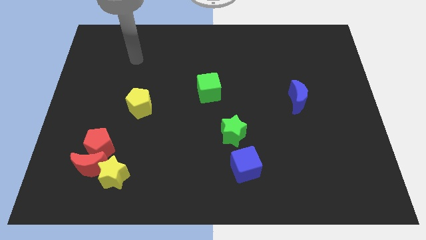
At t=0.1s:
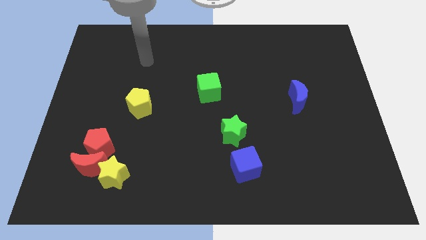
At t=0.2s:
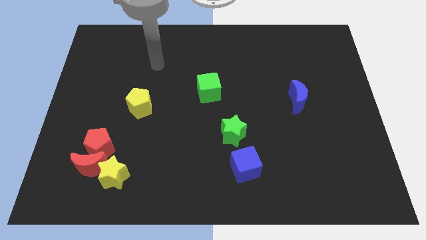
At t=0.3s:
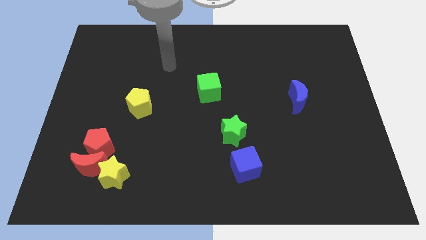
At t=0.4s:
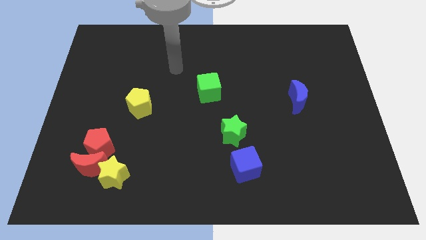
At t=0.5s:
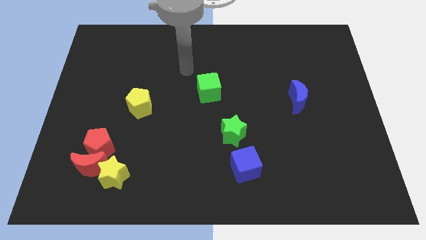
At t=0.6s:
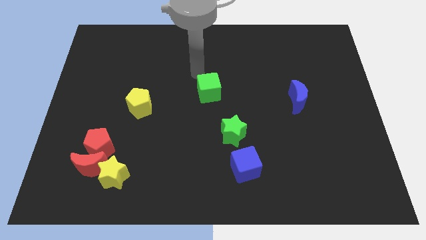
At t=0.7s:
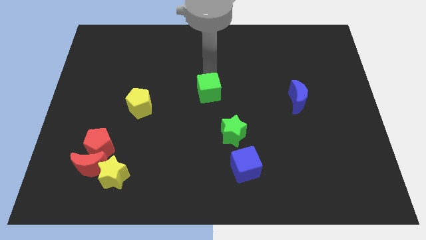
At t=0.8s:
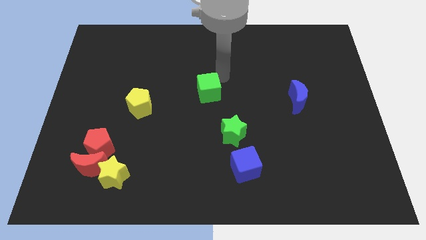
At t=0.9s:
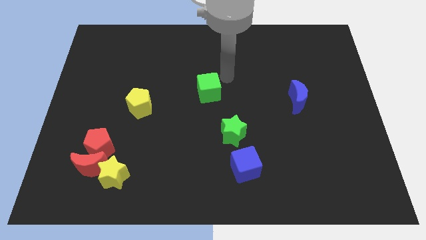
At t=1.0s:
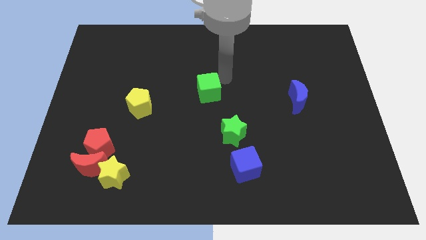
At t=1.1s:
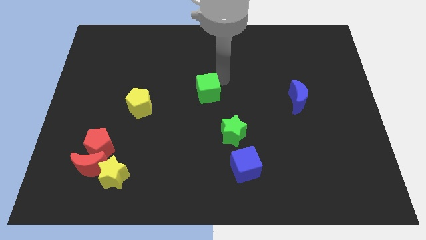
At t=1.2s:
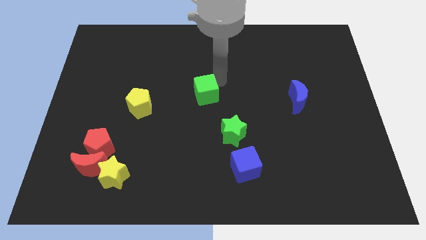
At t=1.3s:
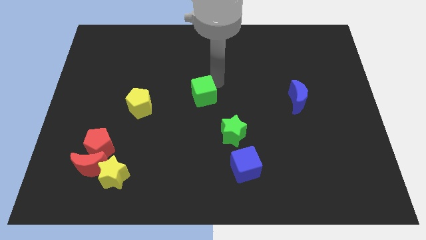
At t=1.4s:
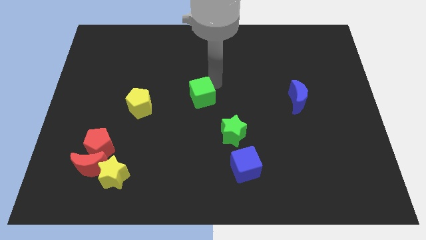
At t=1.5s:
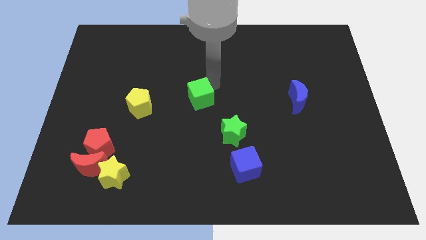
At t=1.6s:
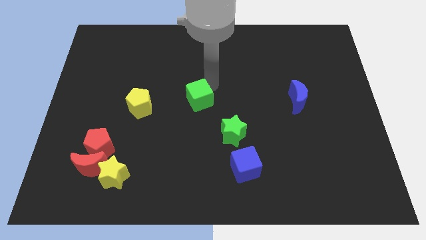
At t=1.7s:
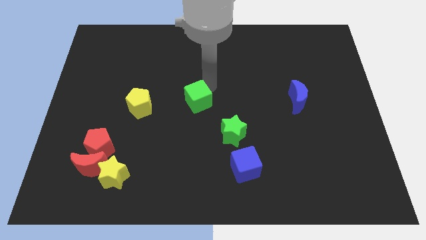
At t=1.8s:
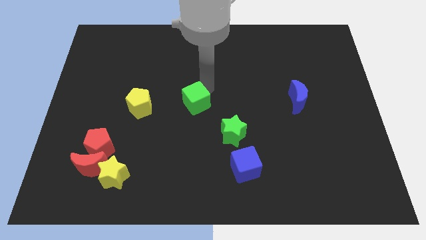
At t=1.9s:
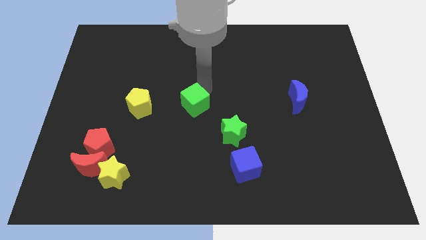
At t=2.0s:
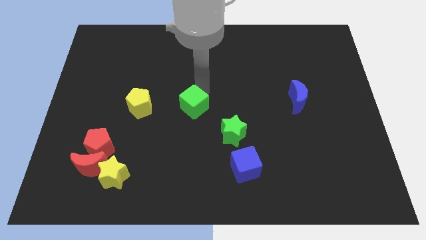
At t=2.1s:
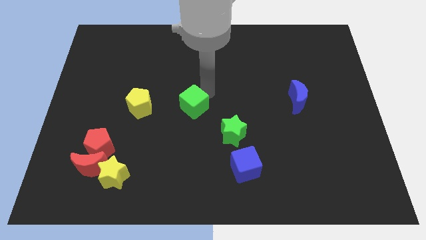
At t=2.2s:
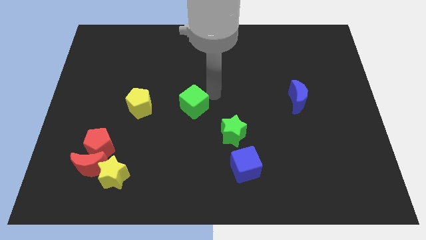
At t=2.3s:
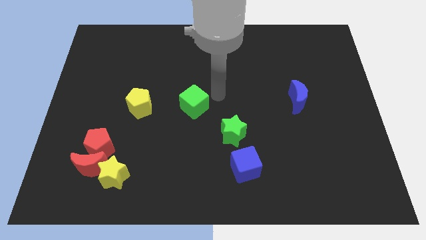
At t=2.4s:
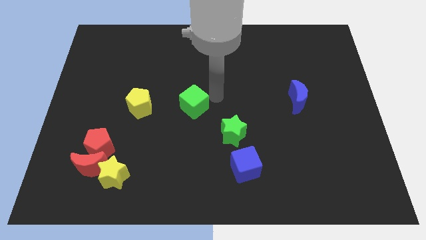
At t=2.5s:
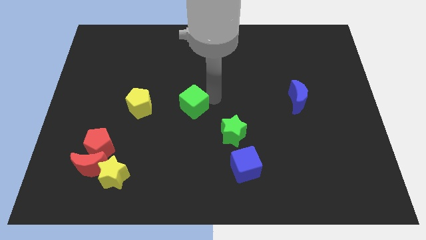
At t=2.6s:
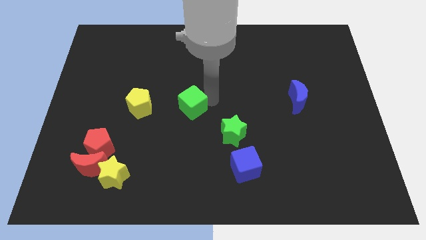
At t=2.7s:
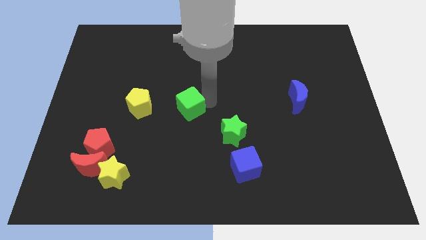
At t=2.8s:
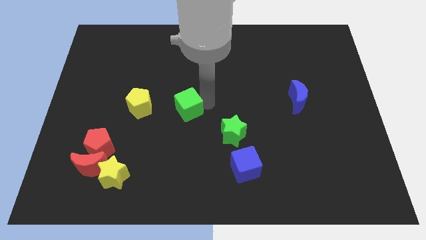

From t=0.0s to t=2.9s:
push the green cube down and to the left a little

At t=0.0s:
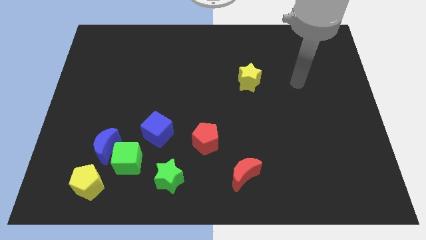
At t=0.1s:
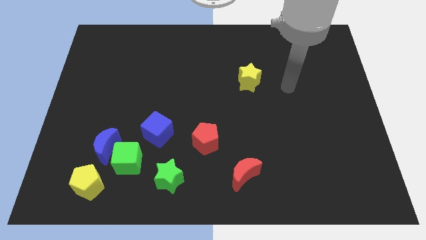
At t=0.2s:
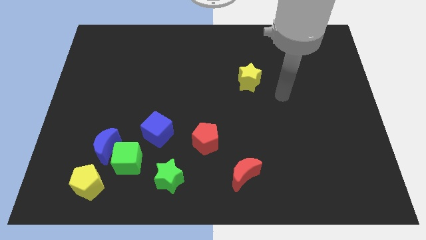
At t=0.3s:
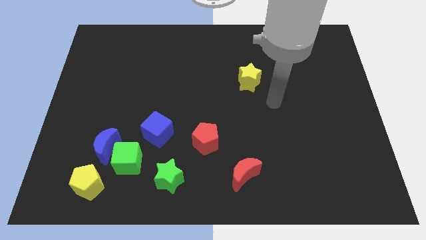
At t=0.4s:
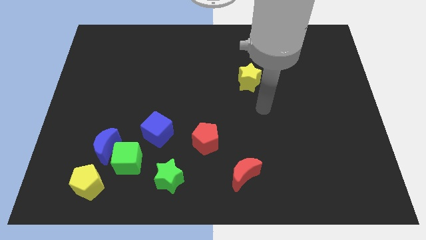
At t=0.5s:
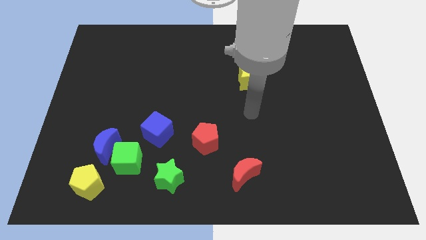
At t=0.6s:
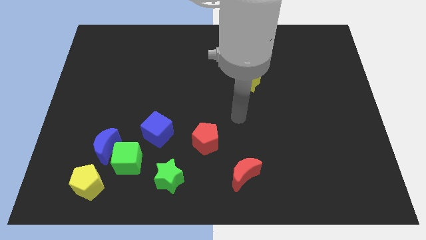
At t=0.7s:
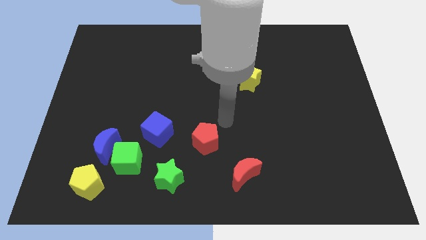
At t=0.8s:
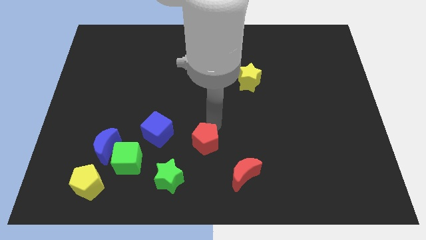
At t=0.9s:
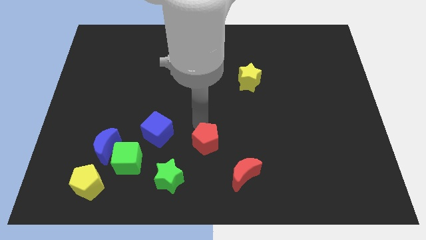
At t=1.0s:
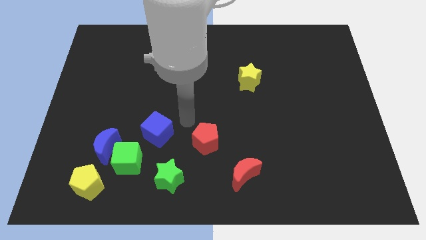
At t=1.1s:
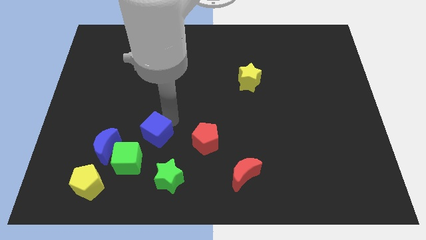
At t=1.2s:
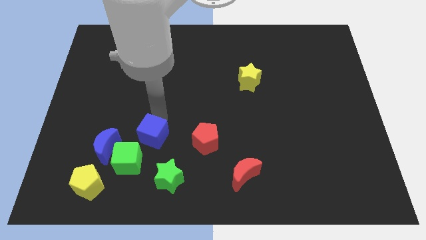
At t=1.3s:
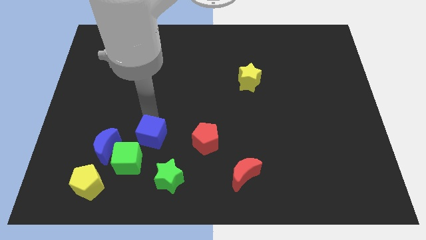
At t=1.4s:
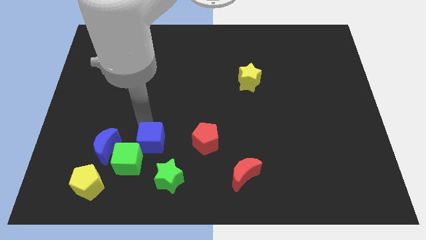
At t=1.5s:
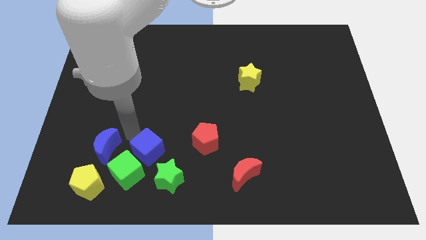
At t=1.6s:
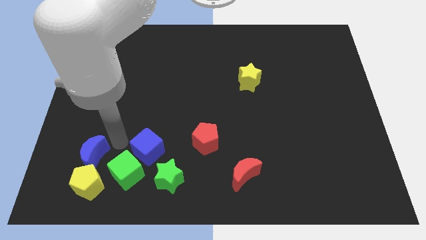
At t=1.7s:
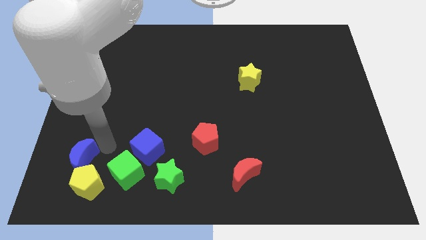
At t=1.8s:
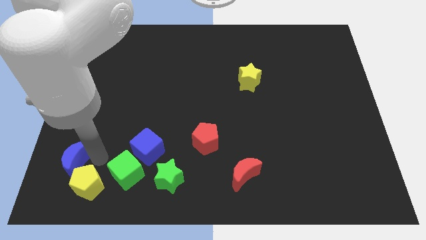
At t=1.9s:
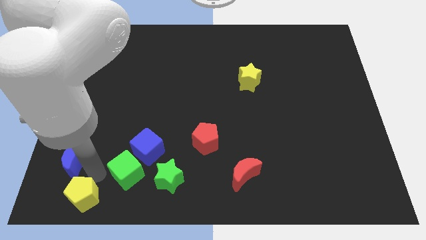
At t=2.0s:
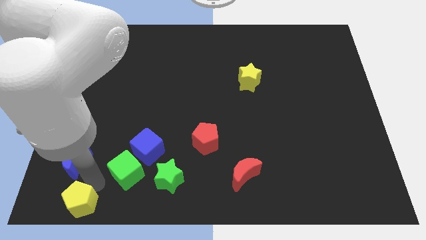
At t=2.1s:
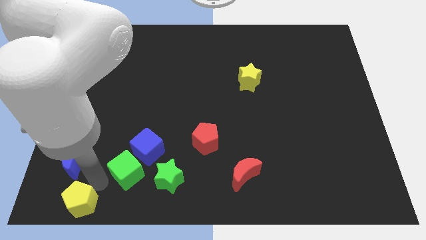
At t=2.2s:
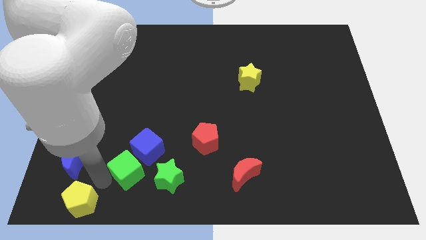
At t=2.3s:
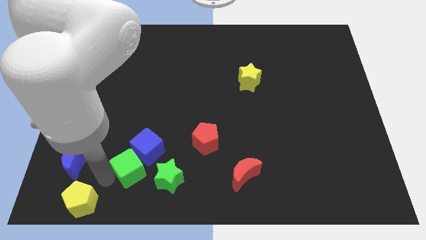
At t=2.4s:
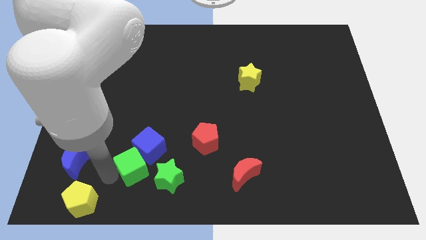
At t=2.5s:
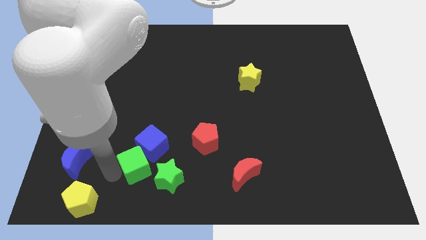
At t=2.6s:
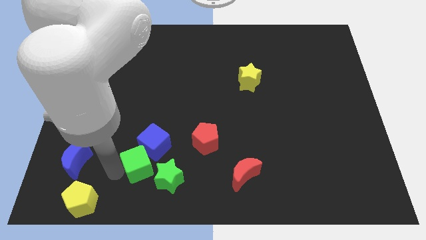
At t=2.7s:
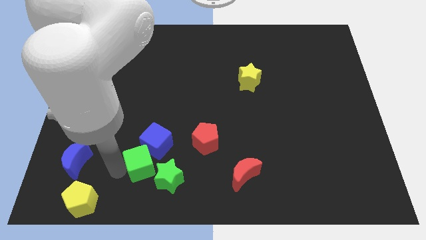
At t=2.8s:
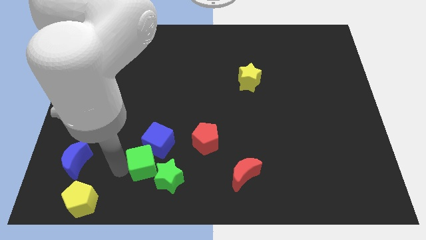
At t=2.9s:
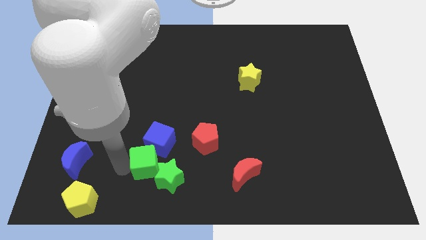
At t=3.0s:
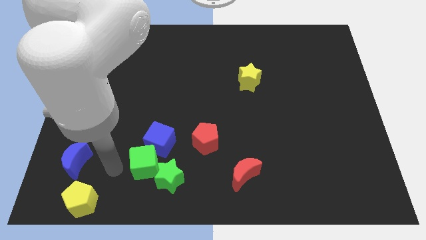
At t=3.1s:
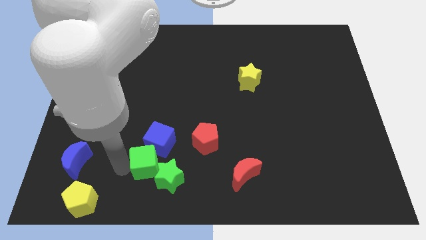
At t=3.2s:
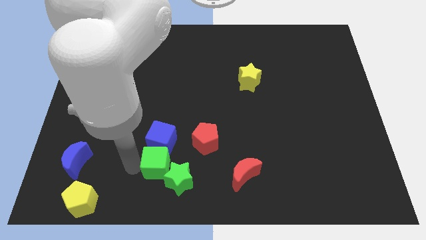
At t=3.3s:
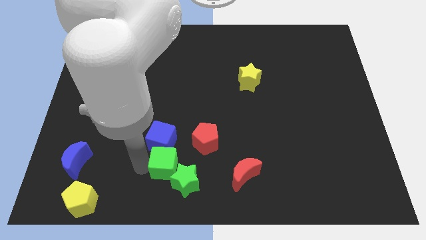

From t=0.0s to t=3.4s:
slightly push the green cube to the right

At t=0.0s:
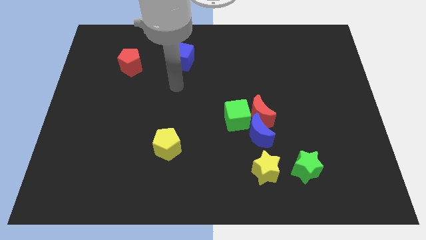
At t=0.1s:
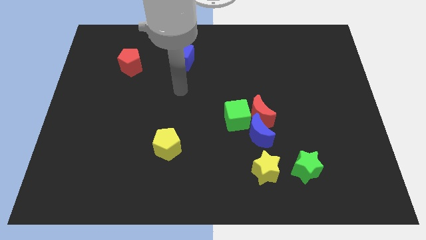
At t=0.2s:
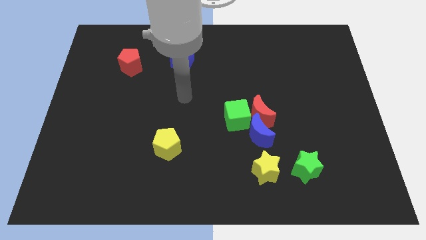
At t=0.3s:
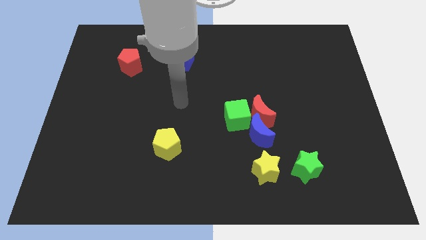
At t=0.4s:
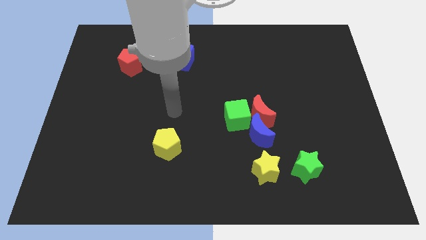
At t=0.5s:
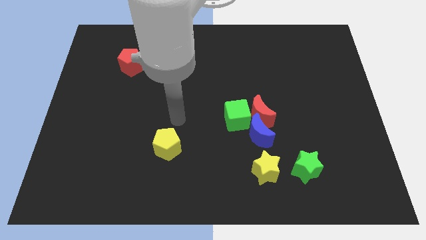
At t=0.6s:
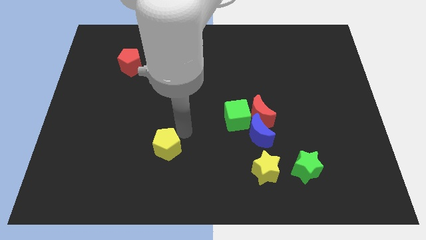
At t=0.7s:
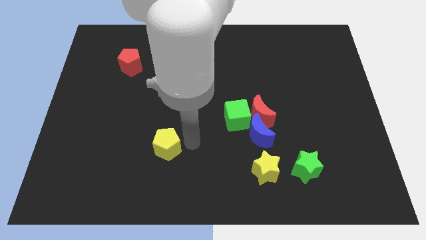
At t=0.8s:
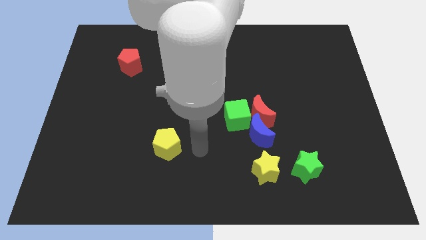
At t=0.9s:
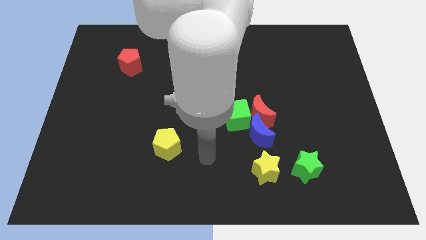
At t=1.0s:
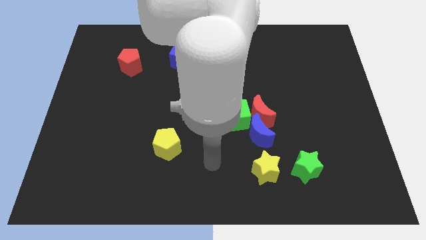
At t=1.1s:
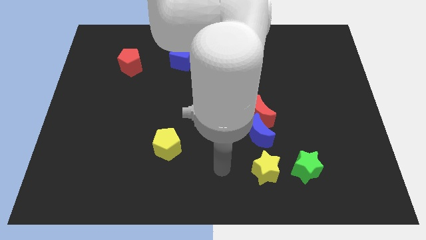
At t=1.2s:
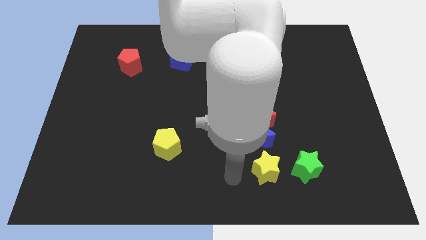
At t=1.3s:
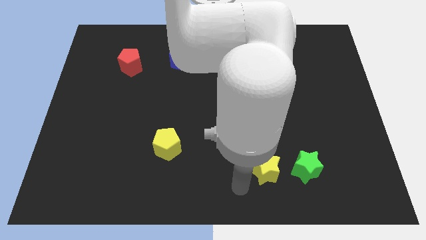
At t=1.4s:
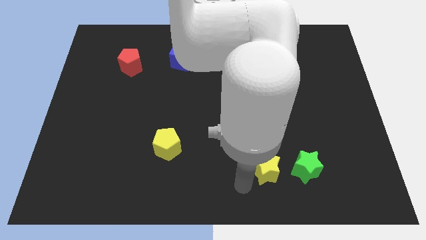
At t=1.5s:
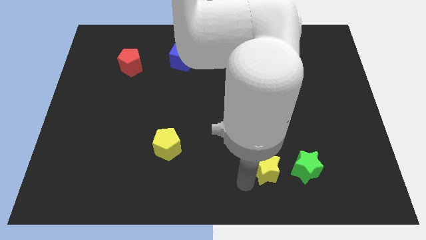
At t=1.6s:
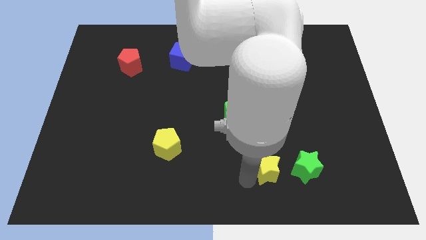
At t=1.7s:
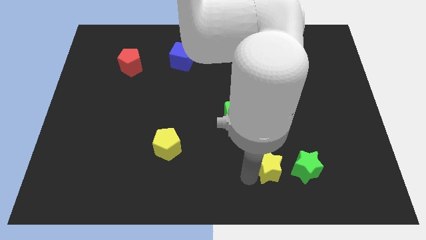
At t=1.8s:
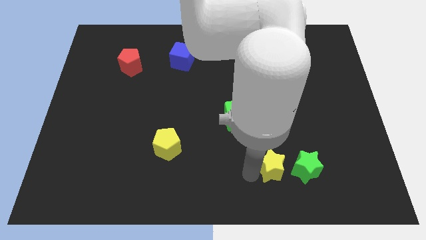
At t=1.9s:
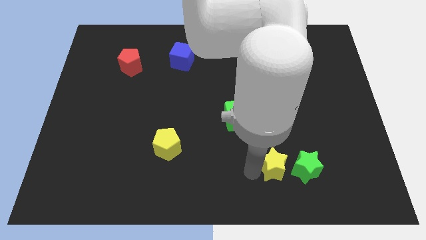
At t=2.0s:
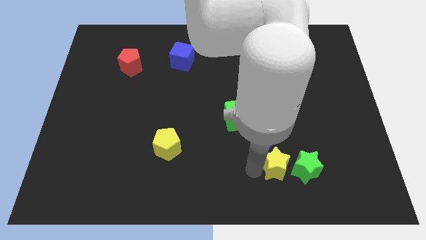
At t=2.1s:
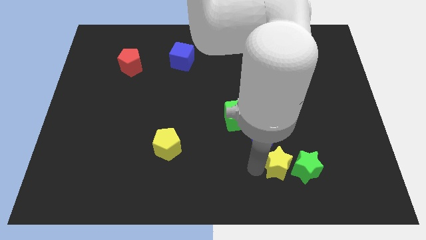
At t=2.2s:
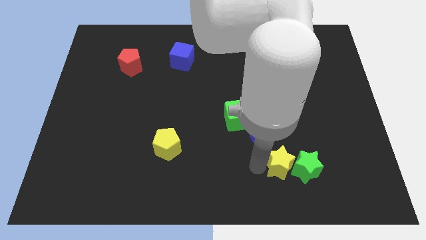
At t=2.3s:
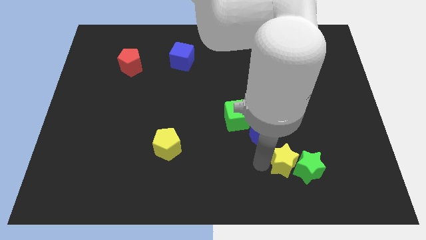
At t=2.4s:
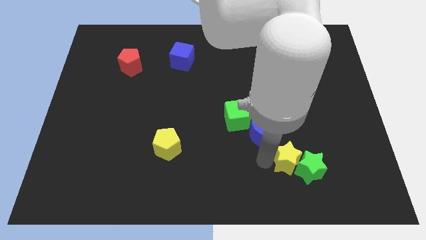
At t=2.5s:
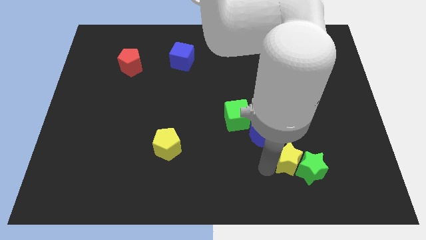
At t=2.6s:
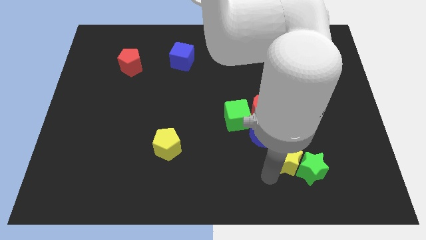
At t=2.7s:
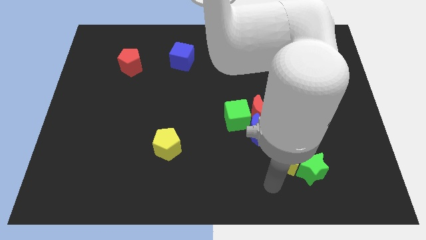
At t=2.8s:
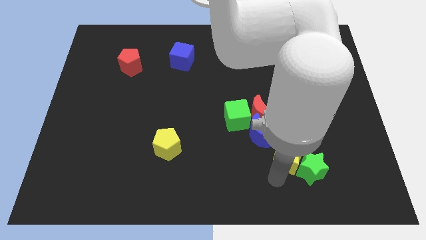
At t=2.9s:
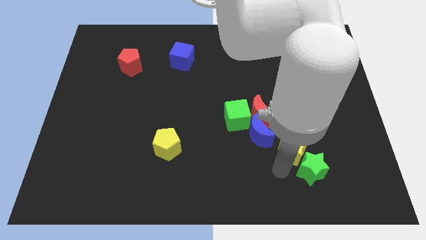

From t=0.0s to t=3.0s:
slightly slide the yellow star upwards and right diagonally
